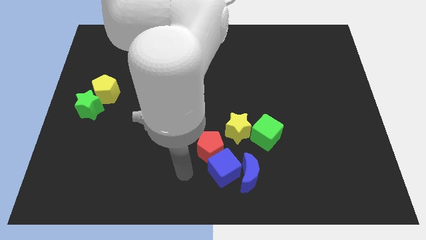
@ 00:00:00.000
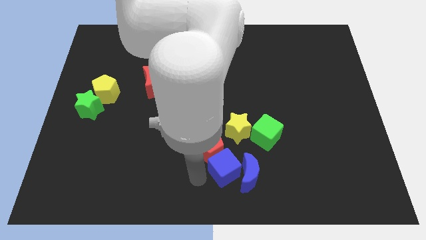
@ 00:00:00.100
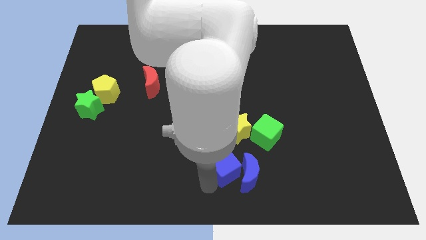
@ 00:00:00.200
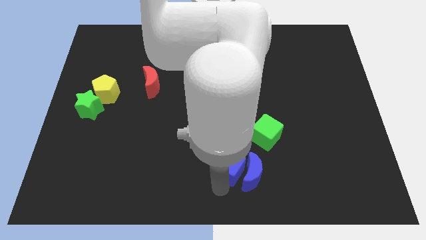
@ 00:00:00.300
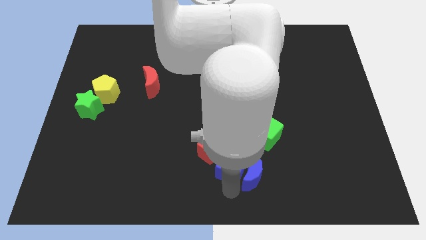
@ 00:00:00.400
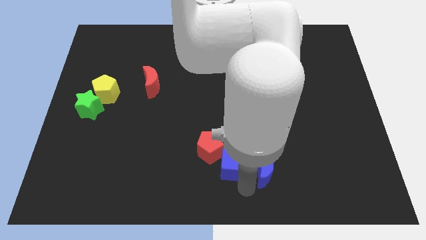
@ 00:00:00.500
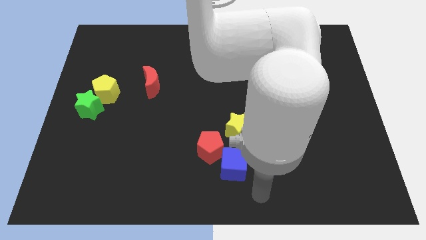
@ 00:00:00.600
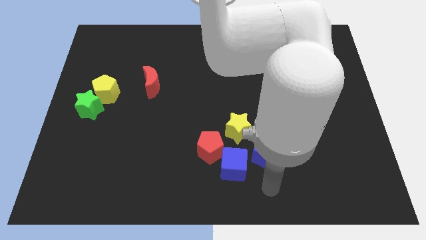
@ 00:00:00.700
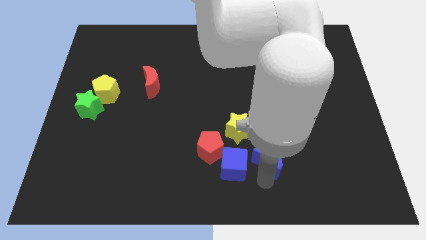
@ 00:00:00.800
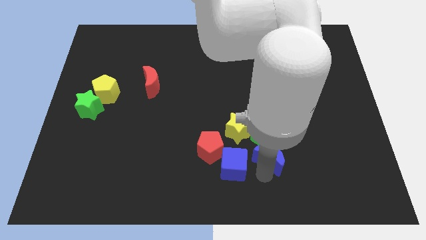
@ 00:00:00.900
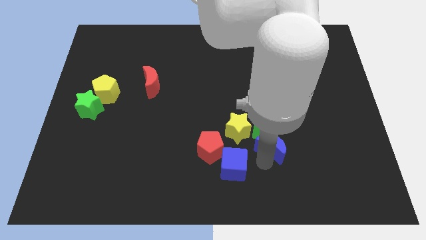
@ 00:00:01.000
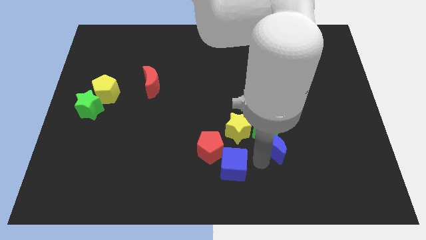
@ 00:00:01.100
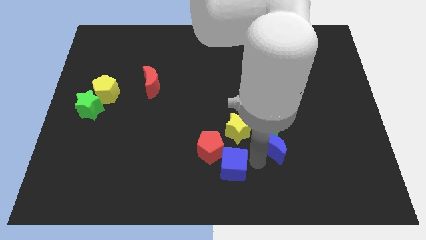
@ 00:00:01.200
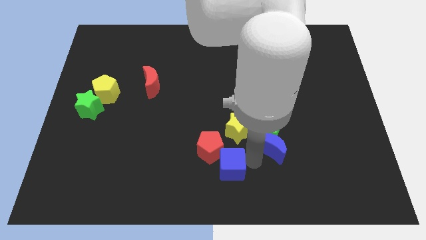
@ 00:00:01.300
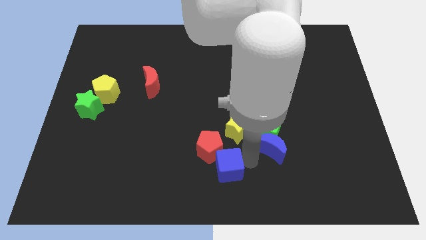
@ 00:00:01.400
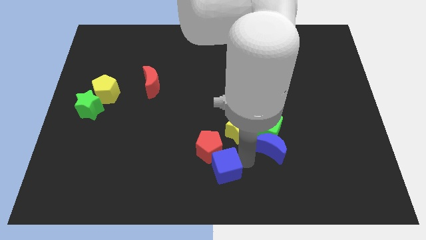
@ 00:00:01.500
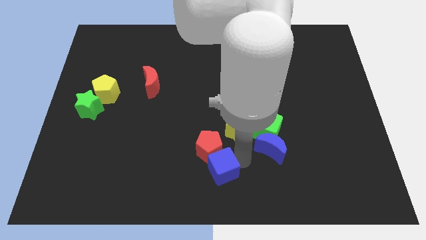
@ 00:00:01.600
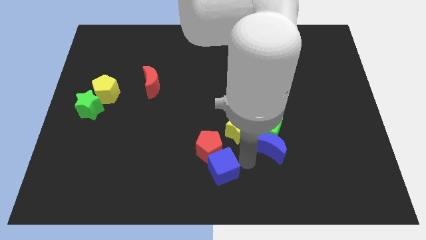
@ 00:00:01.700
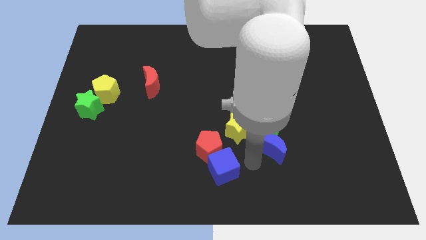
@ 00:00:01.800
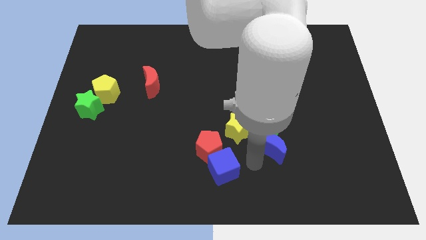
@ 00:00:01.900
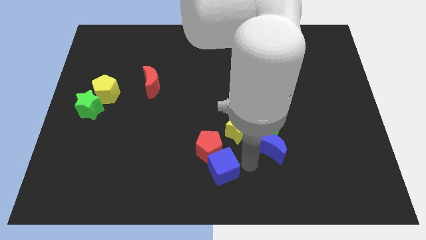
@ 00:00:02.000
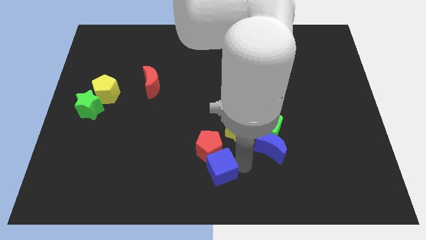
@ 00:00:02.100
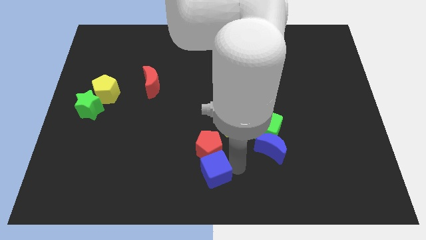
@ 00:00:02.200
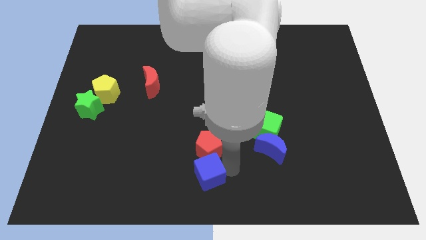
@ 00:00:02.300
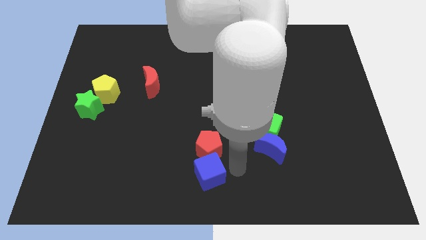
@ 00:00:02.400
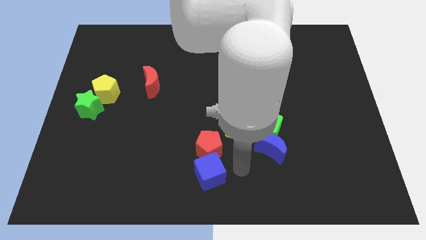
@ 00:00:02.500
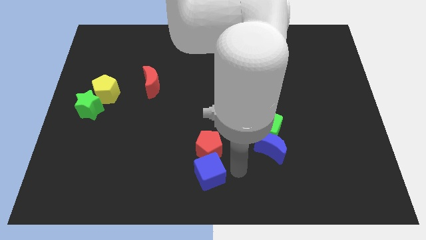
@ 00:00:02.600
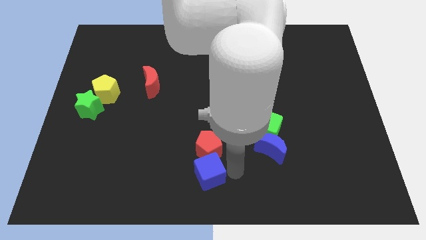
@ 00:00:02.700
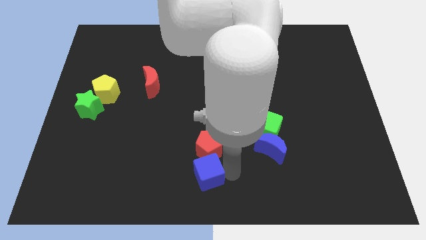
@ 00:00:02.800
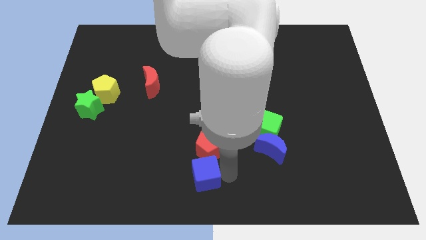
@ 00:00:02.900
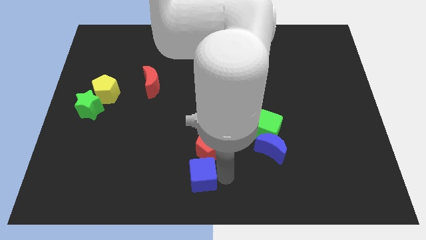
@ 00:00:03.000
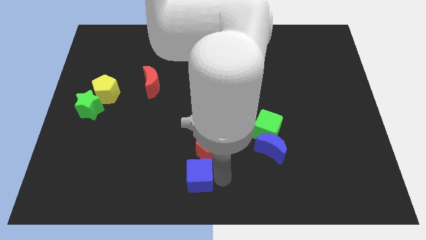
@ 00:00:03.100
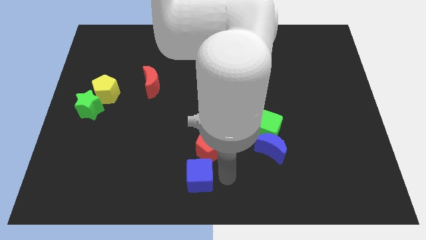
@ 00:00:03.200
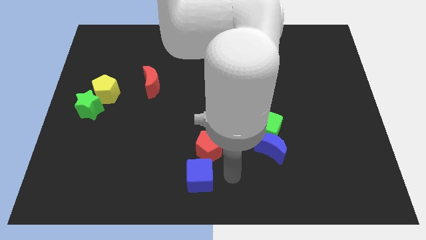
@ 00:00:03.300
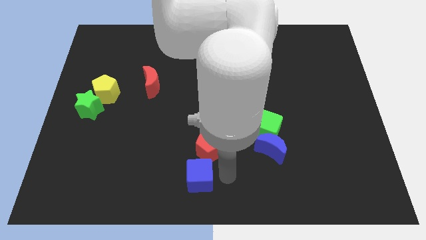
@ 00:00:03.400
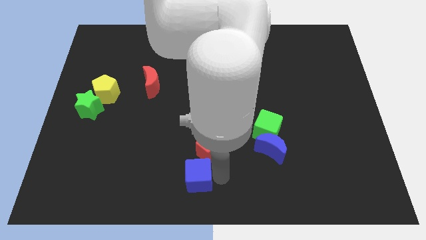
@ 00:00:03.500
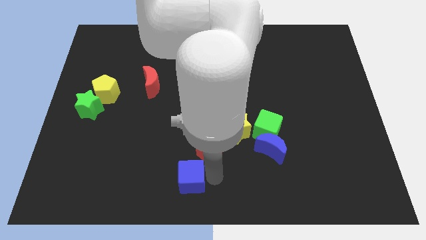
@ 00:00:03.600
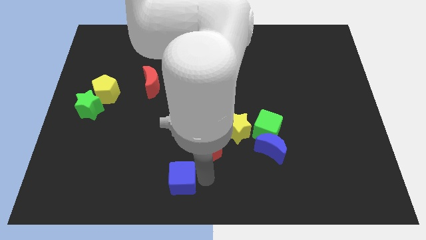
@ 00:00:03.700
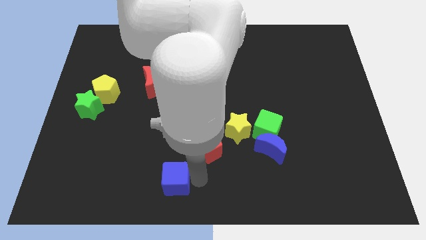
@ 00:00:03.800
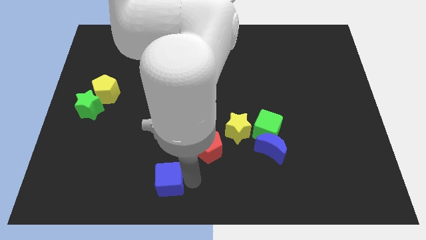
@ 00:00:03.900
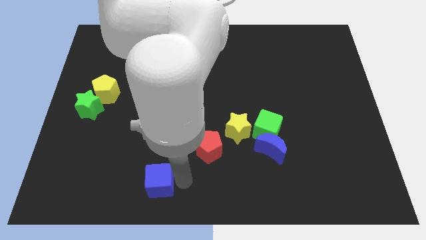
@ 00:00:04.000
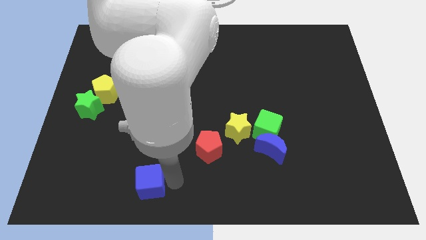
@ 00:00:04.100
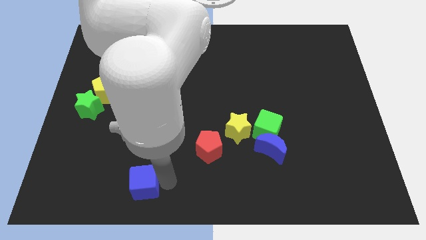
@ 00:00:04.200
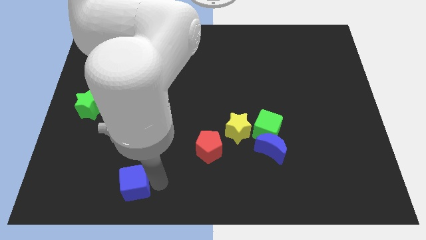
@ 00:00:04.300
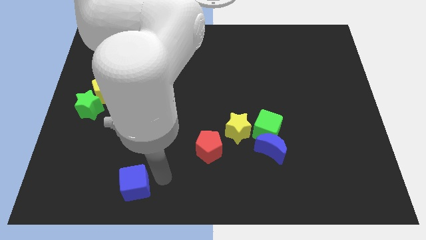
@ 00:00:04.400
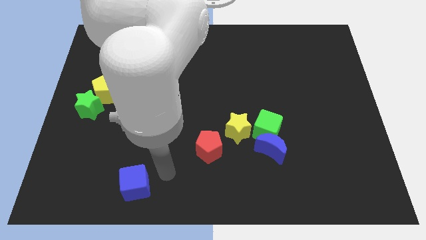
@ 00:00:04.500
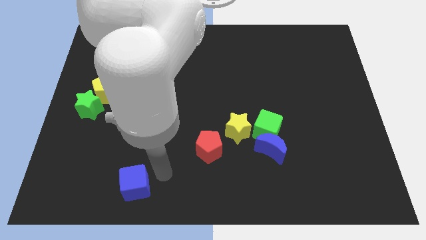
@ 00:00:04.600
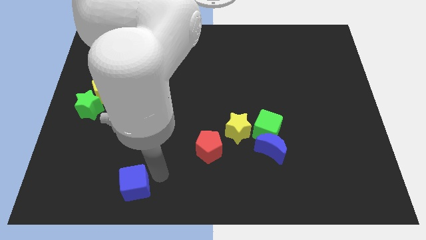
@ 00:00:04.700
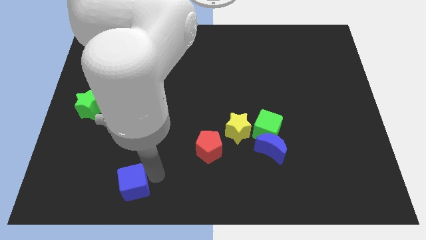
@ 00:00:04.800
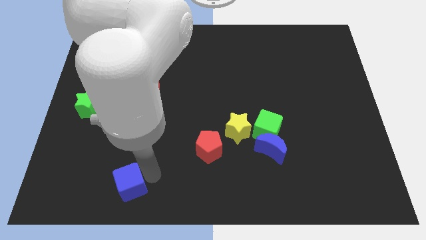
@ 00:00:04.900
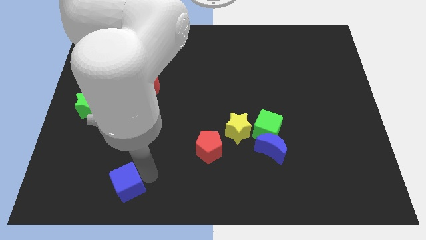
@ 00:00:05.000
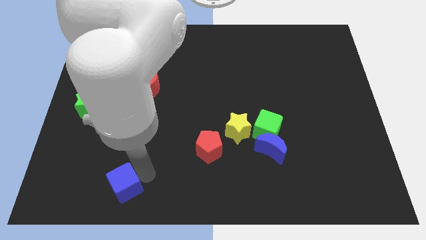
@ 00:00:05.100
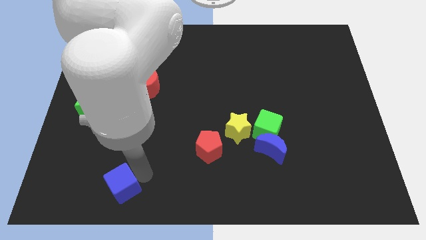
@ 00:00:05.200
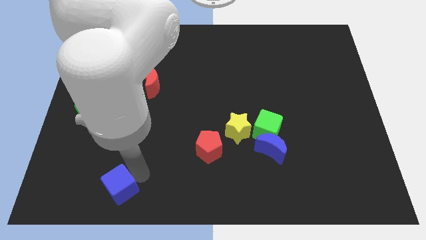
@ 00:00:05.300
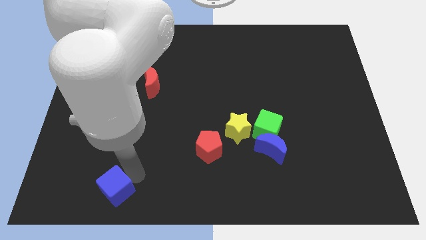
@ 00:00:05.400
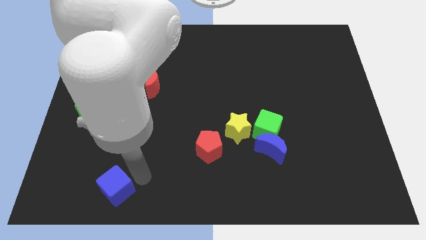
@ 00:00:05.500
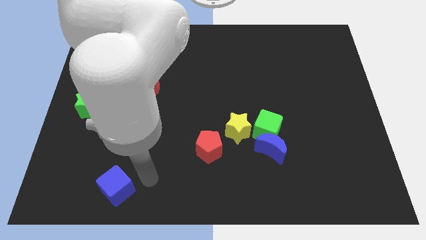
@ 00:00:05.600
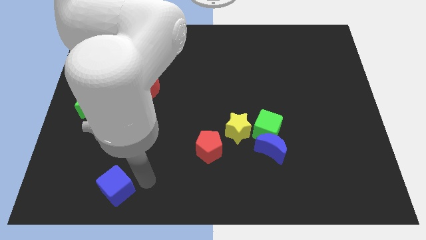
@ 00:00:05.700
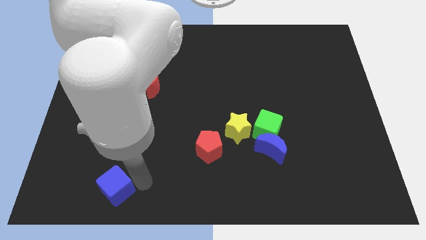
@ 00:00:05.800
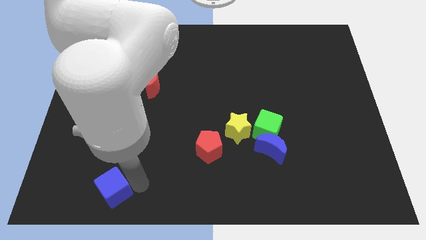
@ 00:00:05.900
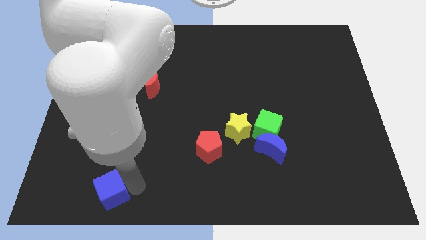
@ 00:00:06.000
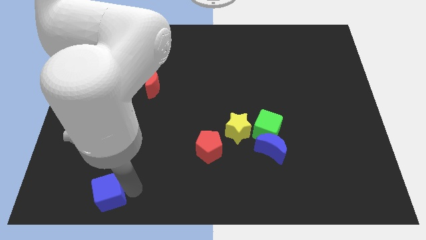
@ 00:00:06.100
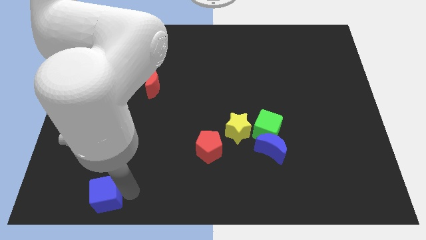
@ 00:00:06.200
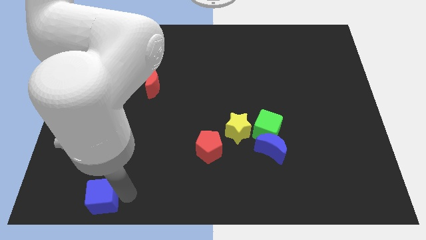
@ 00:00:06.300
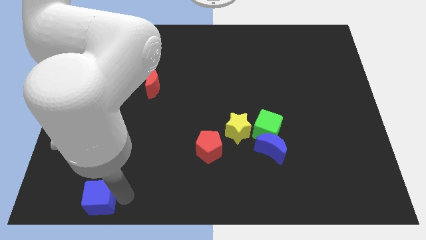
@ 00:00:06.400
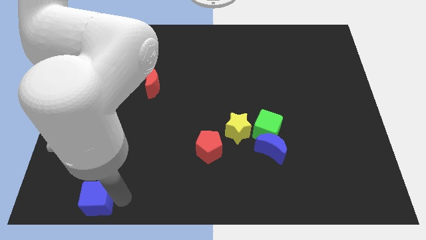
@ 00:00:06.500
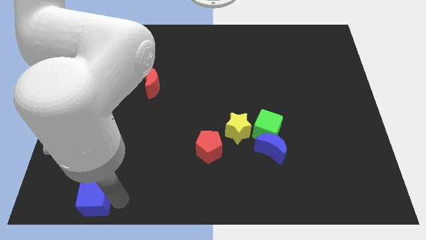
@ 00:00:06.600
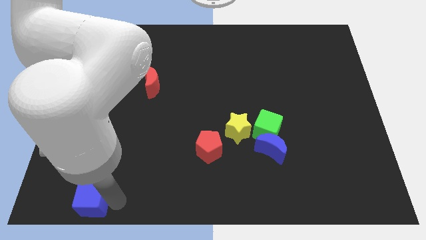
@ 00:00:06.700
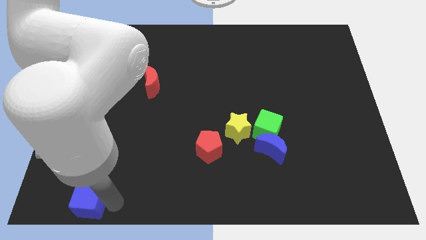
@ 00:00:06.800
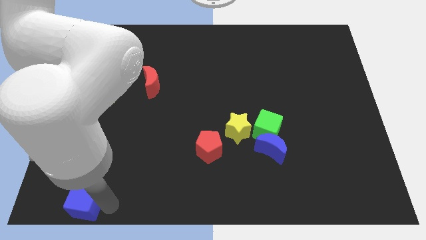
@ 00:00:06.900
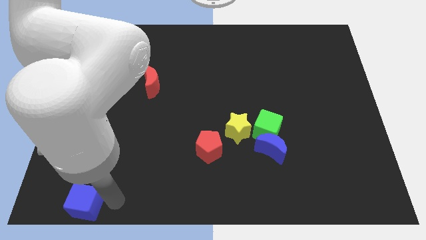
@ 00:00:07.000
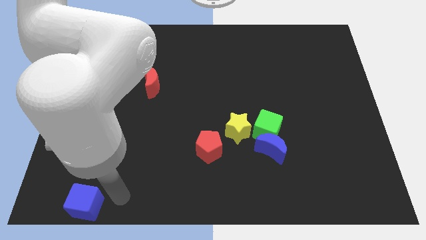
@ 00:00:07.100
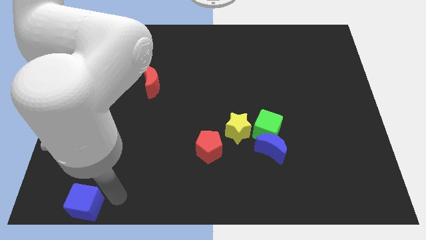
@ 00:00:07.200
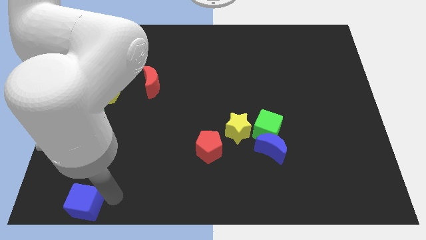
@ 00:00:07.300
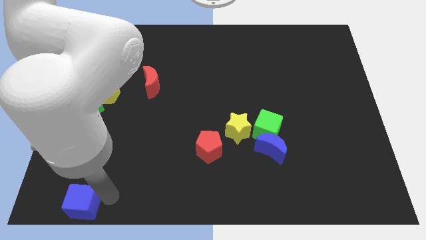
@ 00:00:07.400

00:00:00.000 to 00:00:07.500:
move the blue cube to the bottom left of the board
